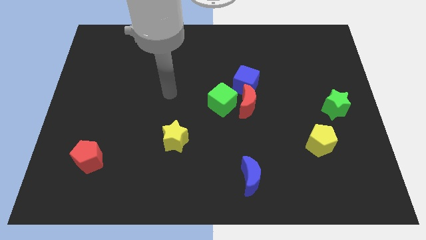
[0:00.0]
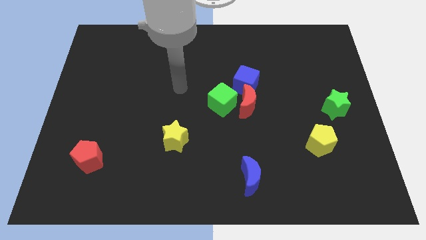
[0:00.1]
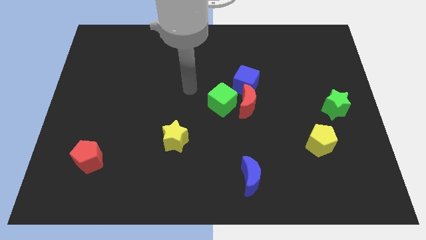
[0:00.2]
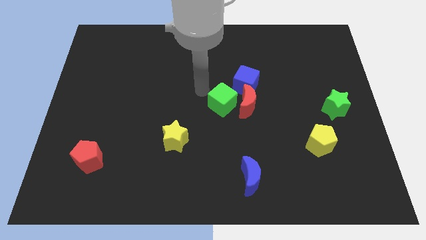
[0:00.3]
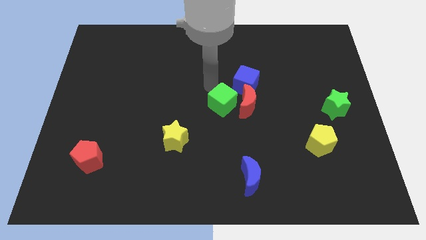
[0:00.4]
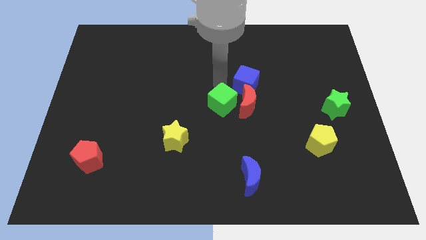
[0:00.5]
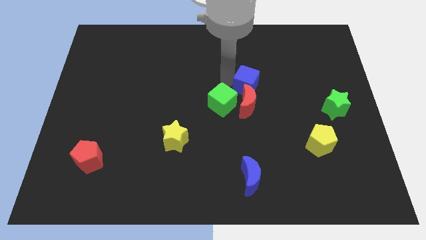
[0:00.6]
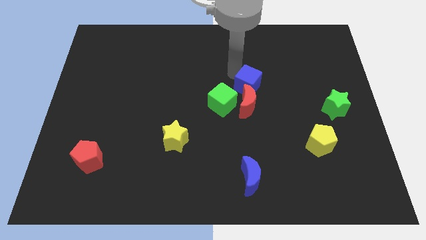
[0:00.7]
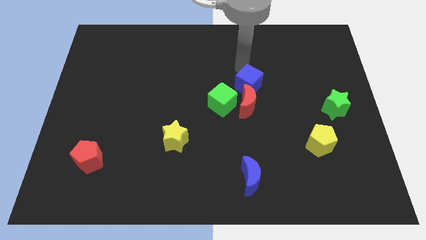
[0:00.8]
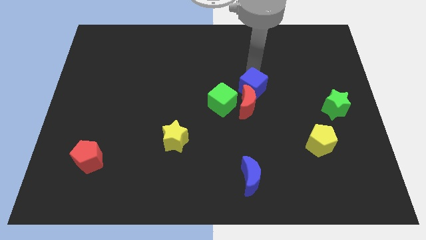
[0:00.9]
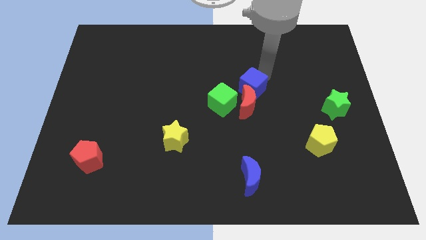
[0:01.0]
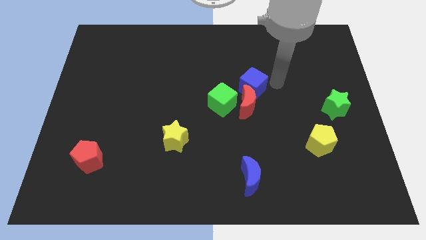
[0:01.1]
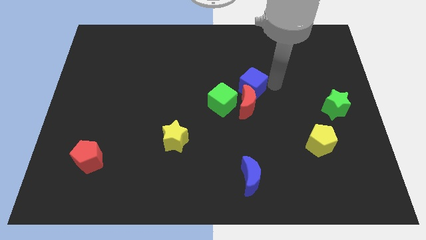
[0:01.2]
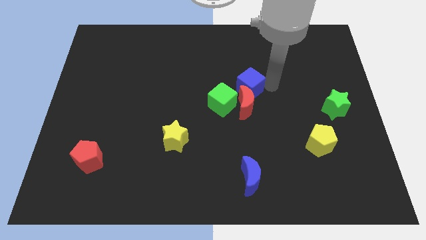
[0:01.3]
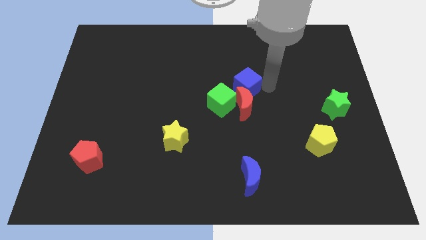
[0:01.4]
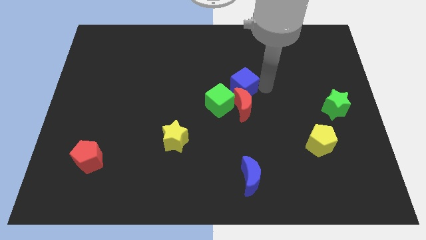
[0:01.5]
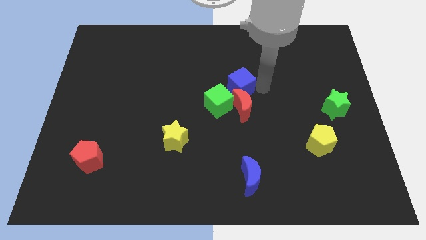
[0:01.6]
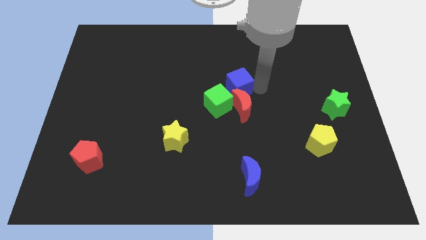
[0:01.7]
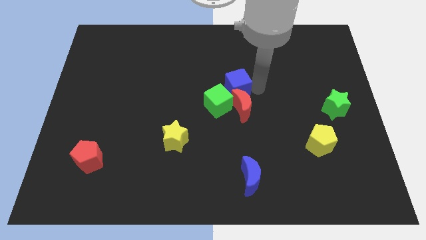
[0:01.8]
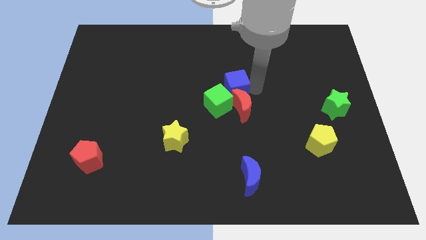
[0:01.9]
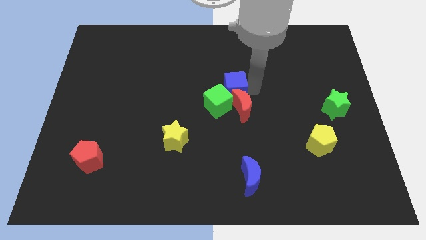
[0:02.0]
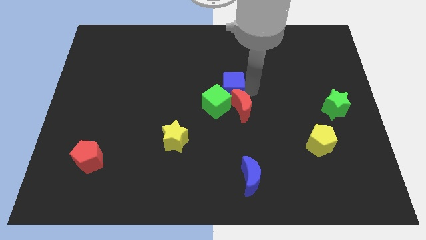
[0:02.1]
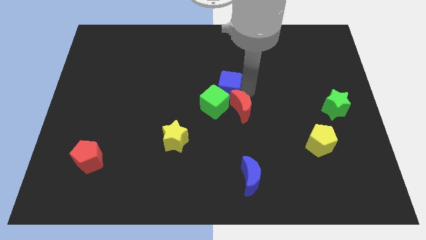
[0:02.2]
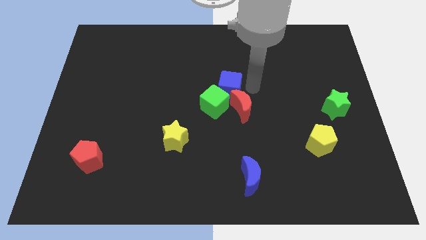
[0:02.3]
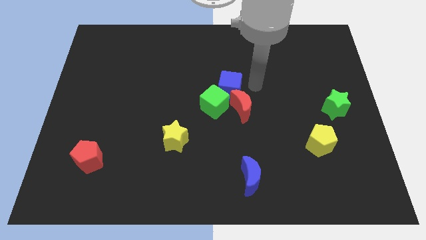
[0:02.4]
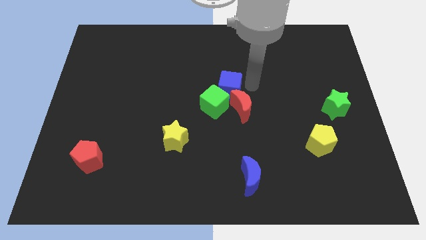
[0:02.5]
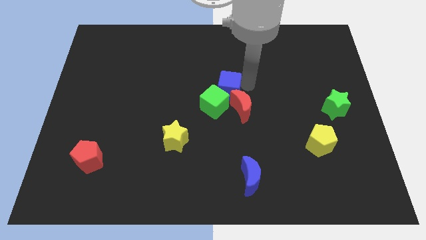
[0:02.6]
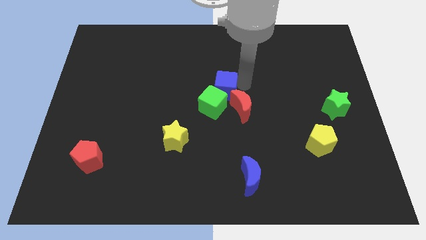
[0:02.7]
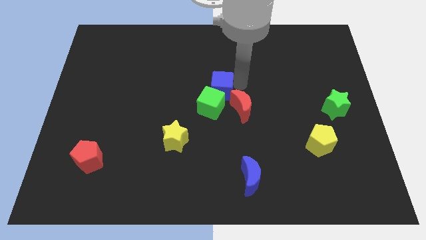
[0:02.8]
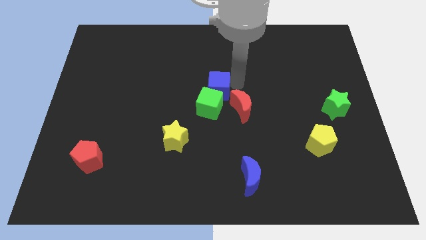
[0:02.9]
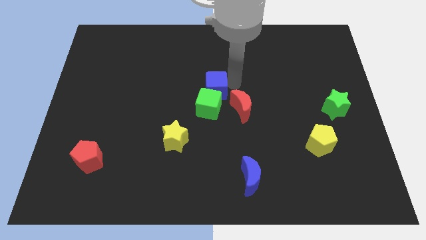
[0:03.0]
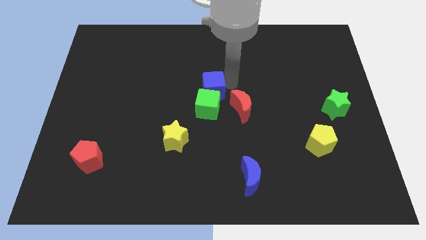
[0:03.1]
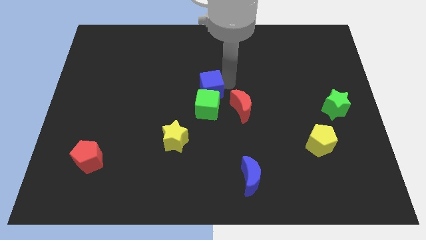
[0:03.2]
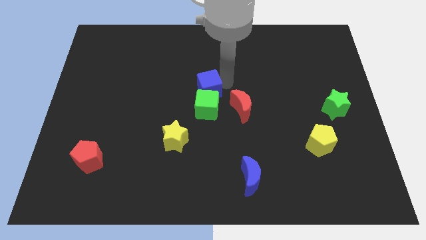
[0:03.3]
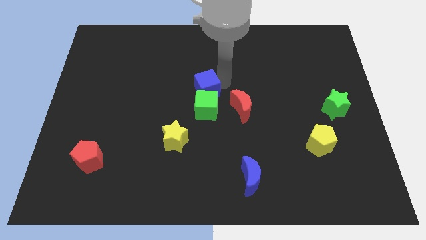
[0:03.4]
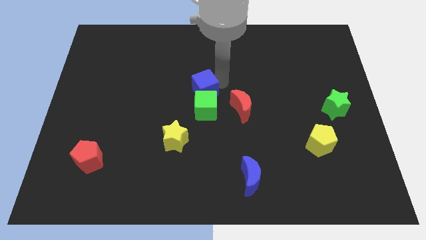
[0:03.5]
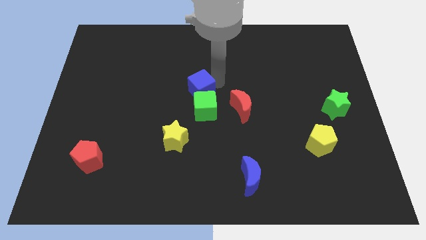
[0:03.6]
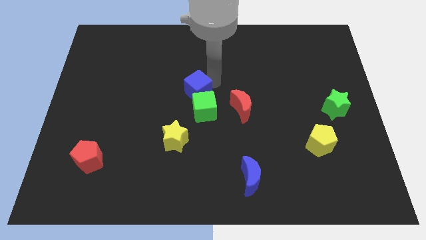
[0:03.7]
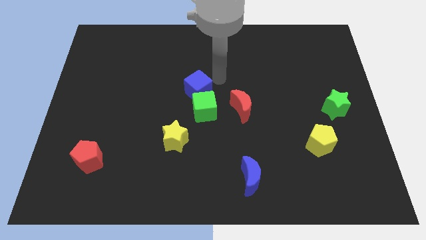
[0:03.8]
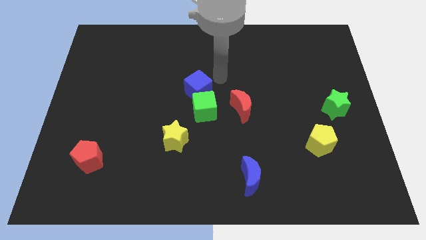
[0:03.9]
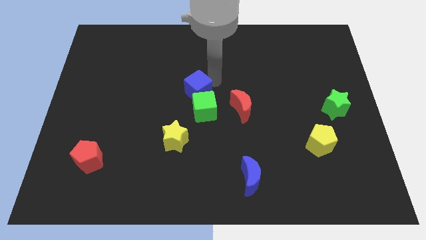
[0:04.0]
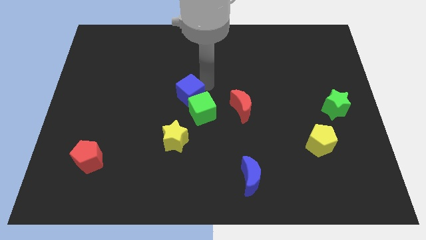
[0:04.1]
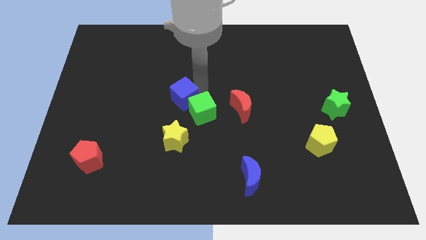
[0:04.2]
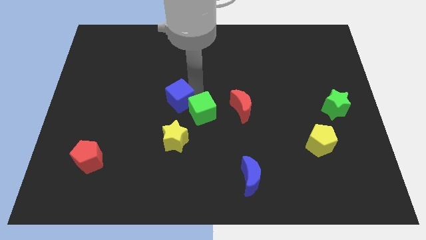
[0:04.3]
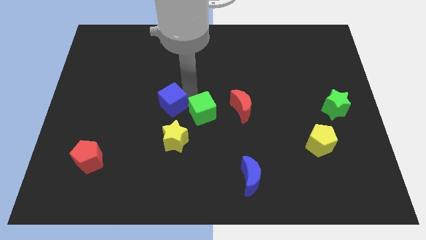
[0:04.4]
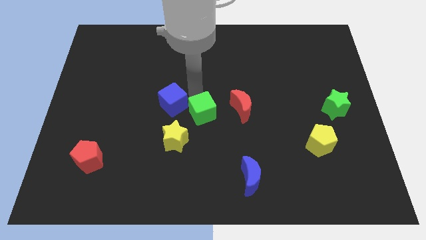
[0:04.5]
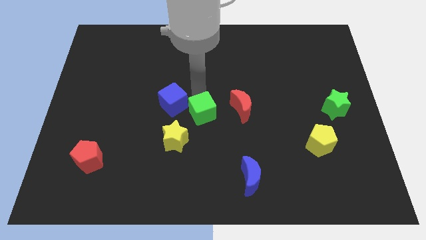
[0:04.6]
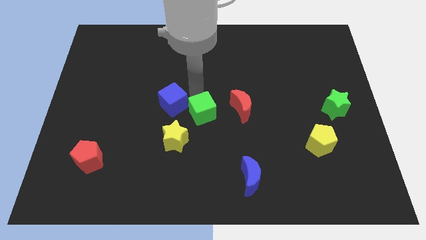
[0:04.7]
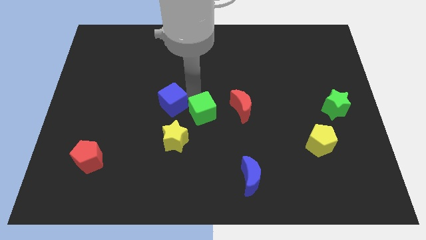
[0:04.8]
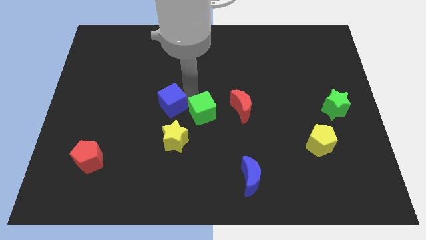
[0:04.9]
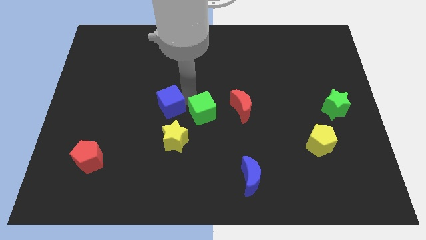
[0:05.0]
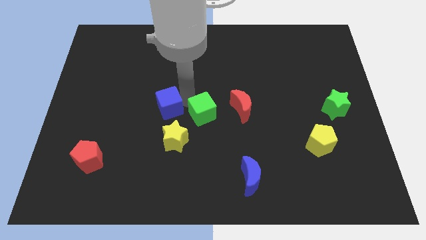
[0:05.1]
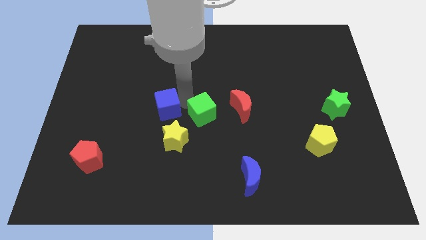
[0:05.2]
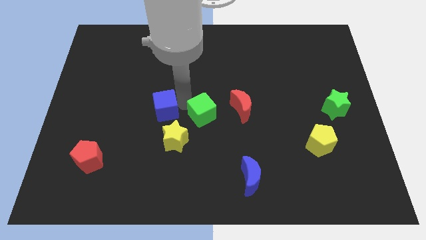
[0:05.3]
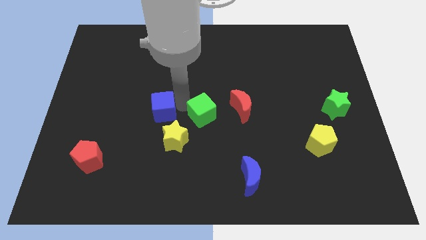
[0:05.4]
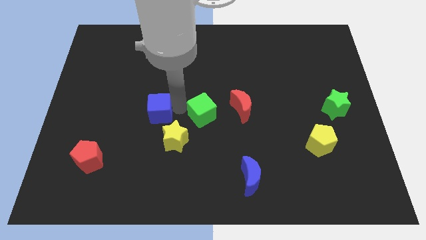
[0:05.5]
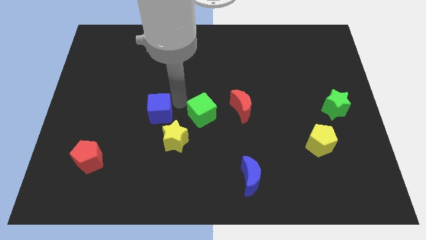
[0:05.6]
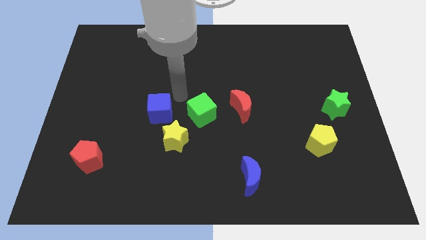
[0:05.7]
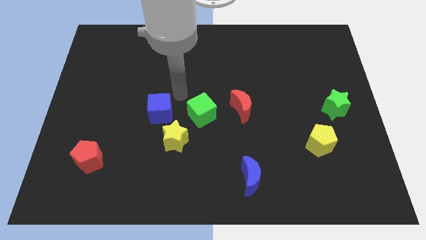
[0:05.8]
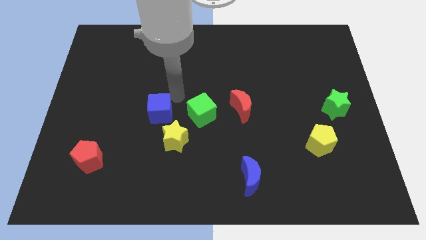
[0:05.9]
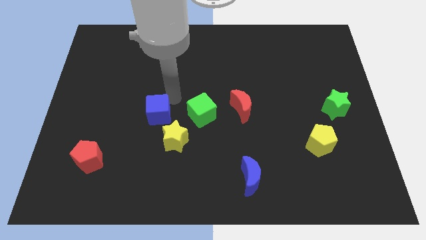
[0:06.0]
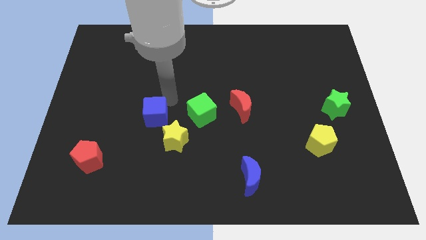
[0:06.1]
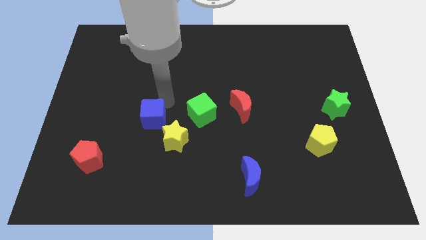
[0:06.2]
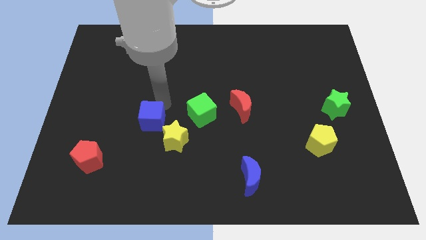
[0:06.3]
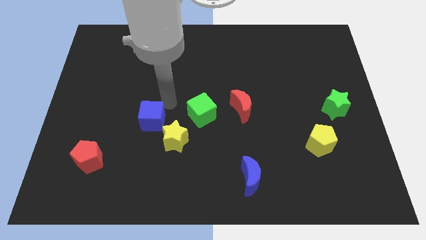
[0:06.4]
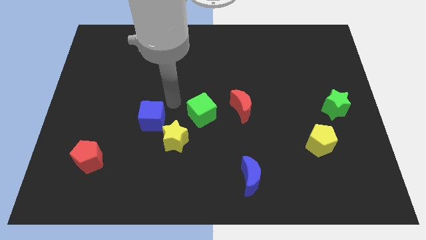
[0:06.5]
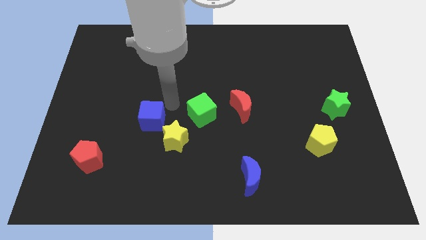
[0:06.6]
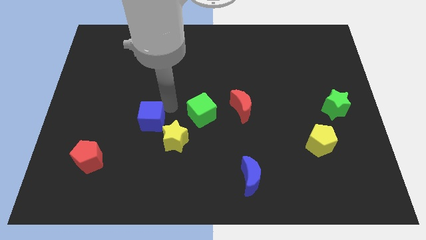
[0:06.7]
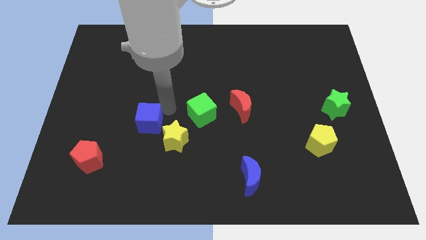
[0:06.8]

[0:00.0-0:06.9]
put the blue cube to the left side of the yellow star
